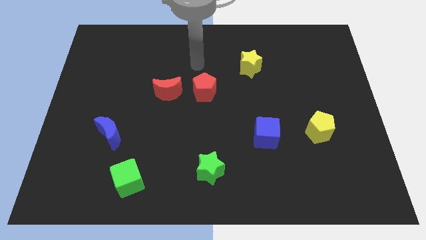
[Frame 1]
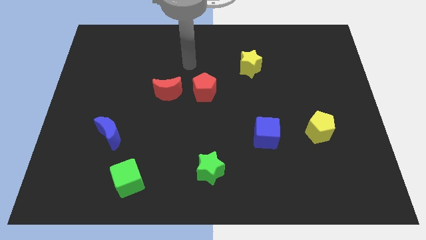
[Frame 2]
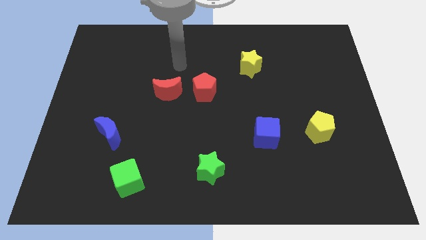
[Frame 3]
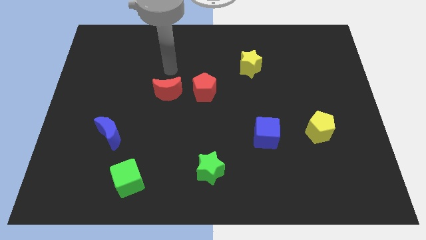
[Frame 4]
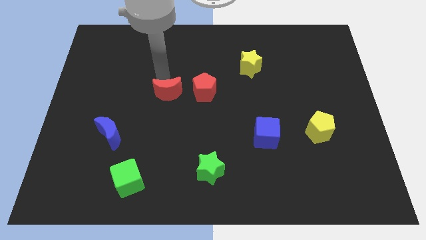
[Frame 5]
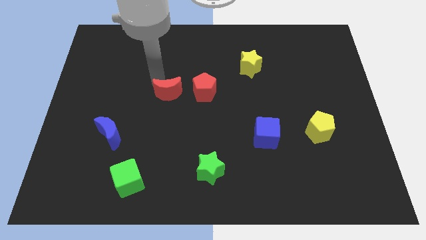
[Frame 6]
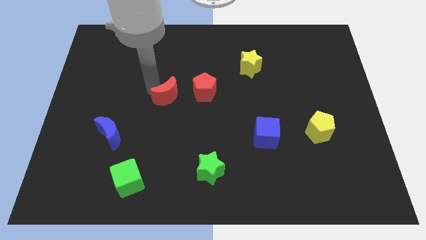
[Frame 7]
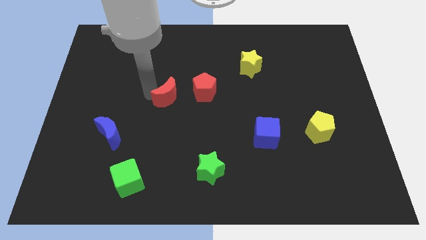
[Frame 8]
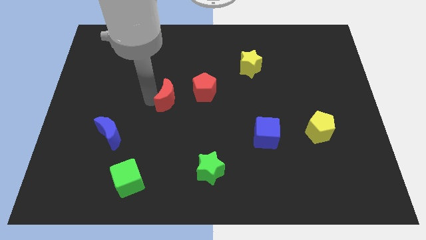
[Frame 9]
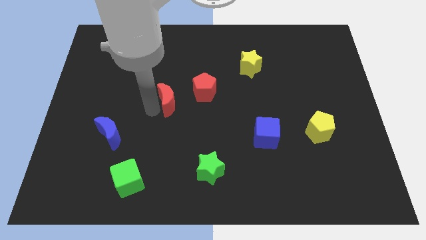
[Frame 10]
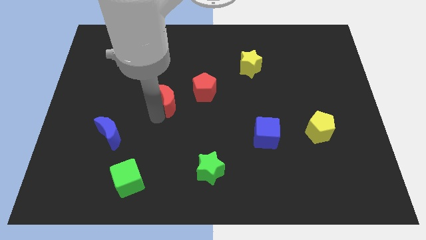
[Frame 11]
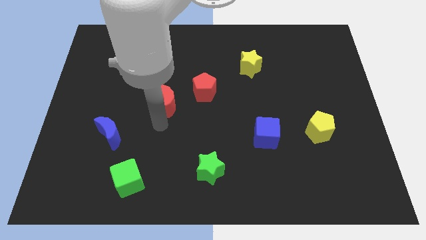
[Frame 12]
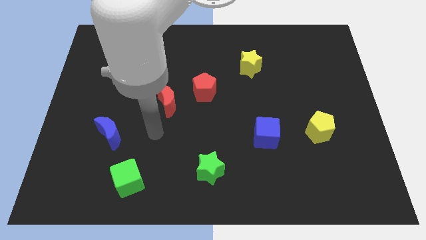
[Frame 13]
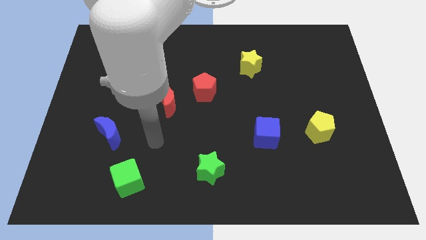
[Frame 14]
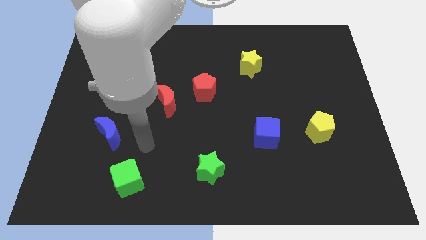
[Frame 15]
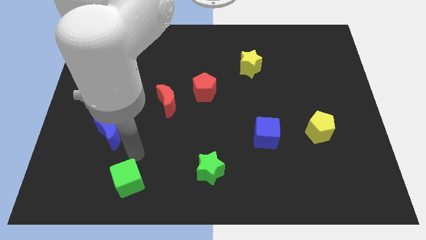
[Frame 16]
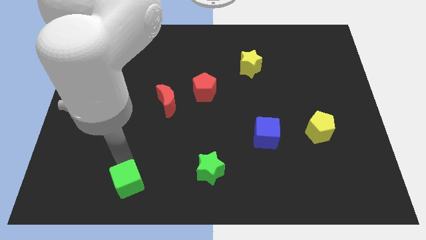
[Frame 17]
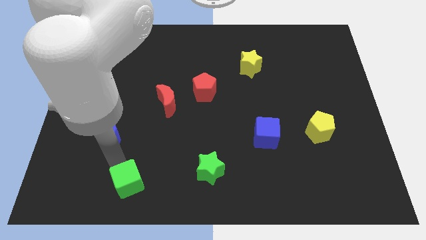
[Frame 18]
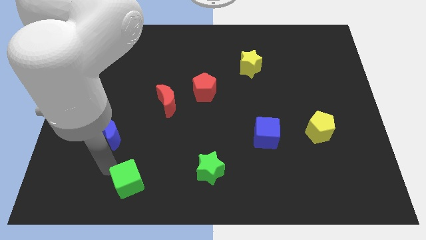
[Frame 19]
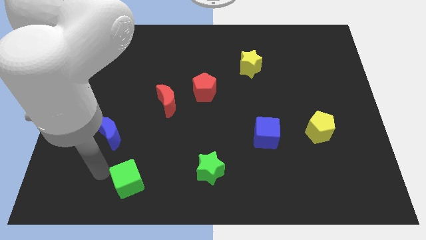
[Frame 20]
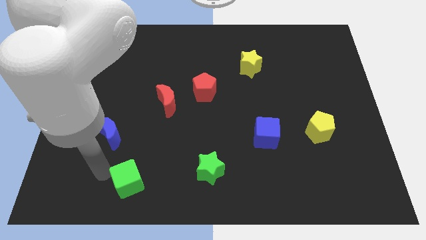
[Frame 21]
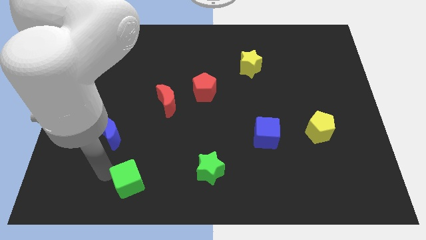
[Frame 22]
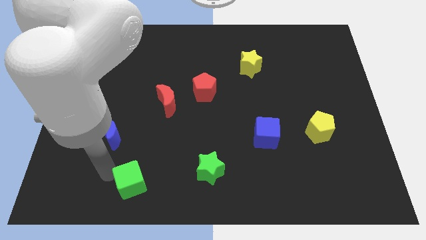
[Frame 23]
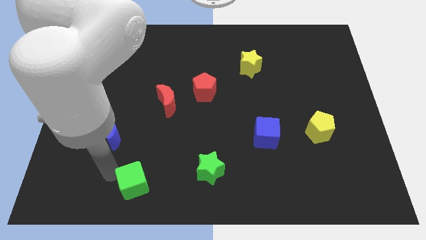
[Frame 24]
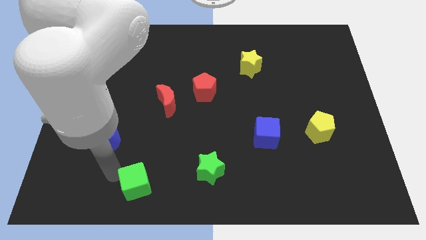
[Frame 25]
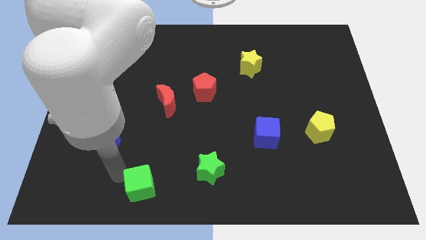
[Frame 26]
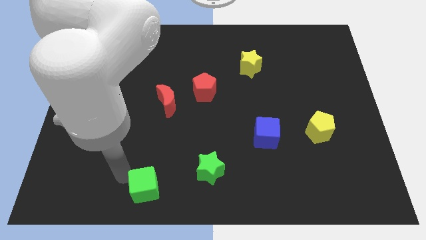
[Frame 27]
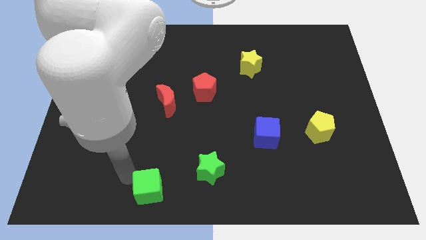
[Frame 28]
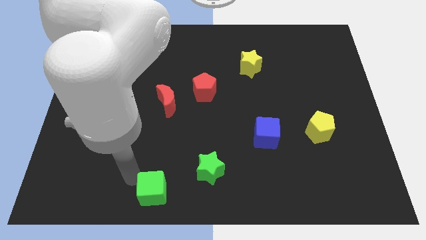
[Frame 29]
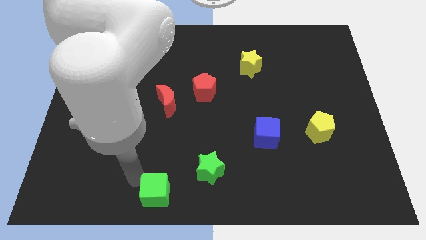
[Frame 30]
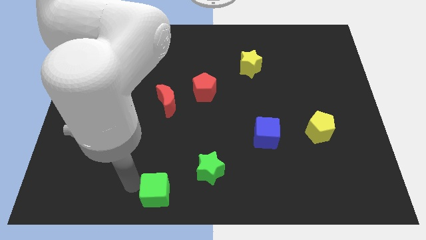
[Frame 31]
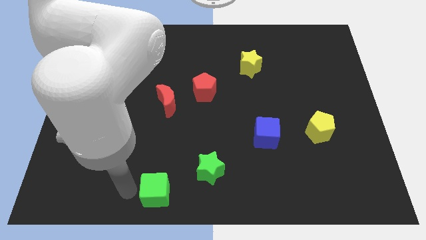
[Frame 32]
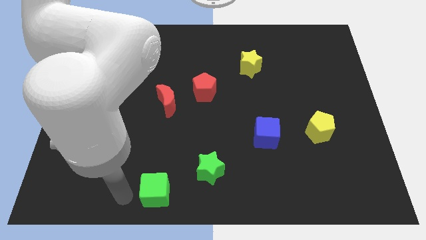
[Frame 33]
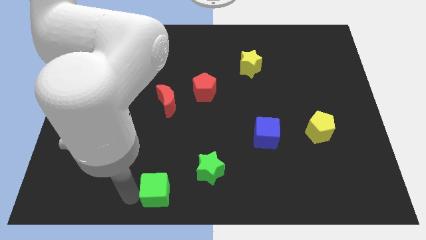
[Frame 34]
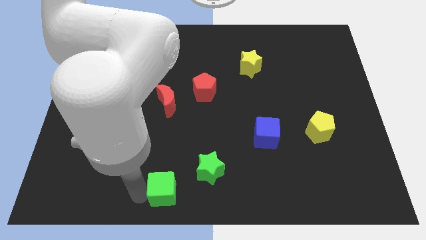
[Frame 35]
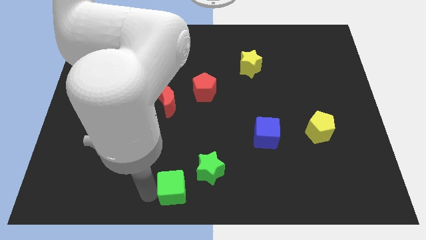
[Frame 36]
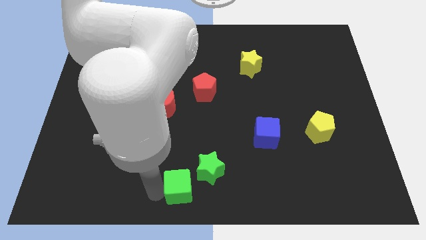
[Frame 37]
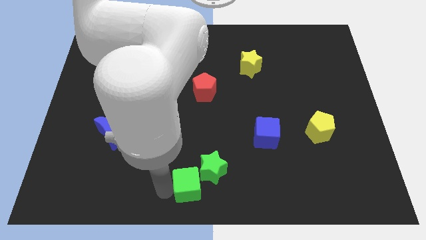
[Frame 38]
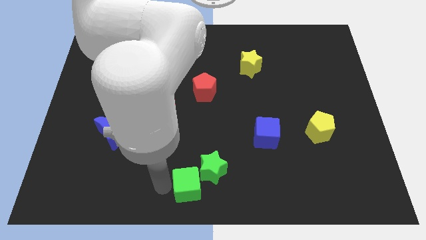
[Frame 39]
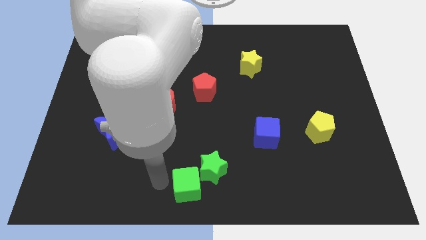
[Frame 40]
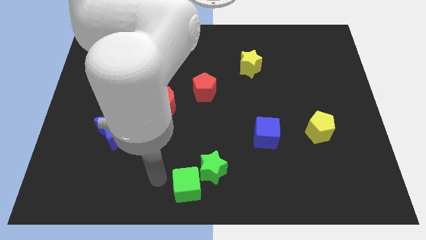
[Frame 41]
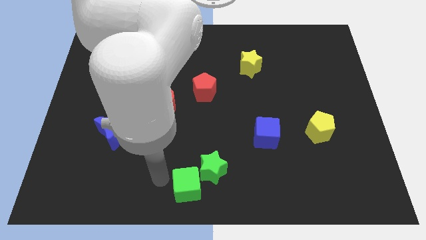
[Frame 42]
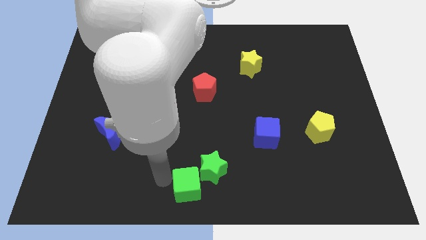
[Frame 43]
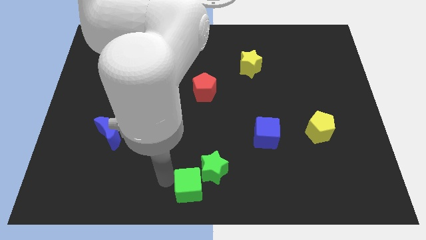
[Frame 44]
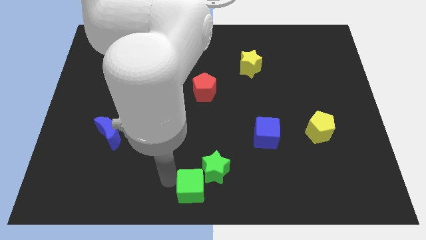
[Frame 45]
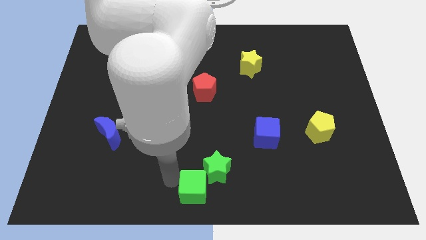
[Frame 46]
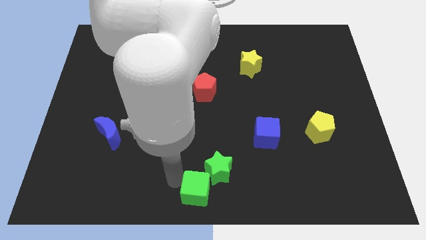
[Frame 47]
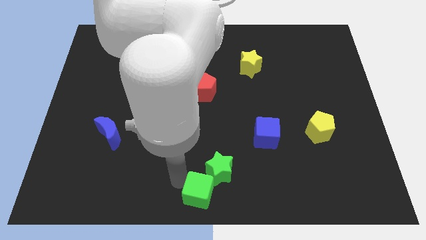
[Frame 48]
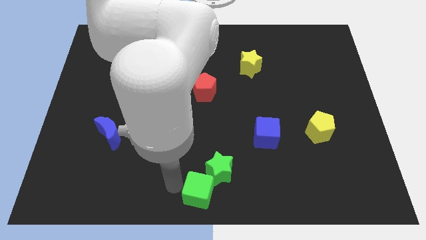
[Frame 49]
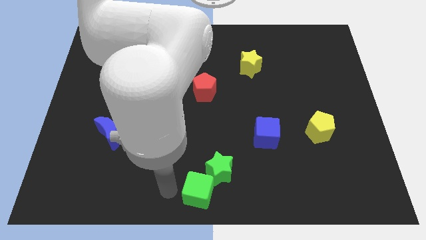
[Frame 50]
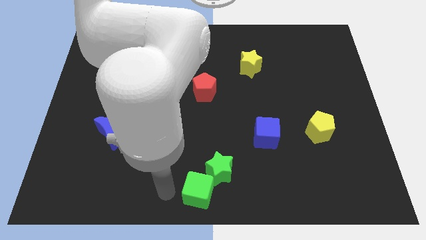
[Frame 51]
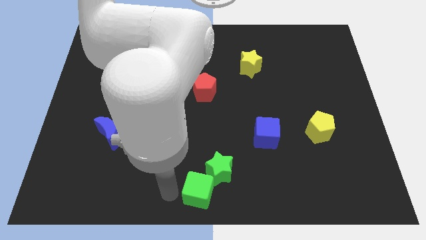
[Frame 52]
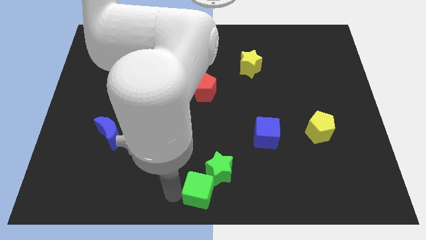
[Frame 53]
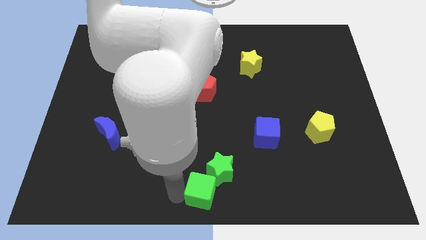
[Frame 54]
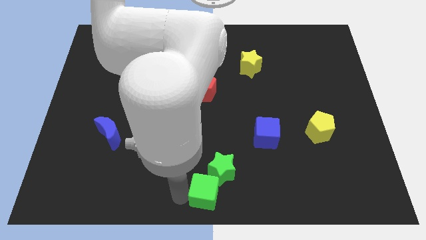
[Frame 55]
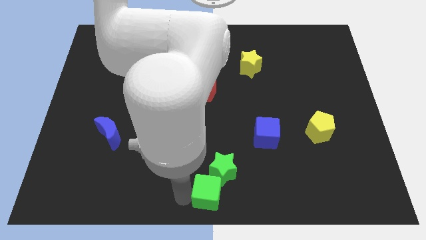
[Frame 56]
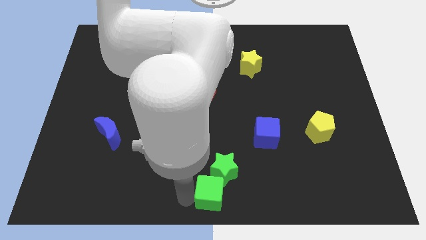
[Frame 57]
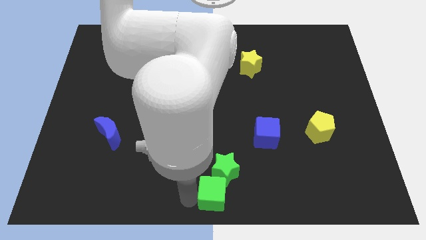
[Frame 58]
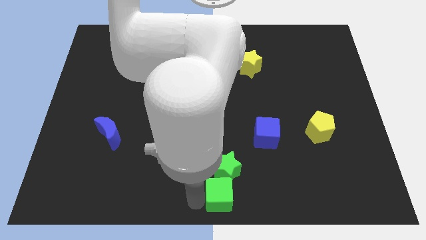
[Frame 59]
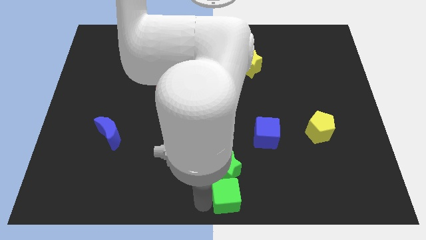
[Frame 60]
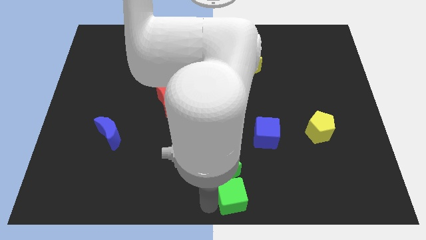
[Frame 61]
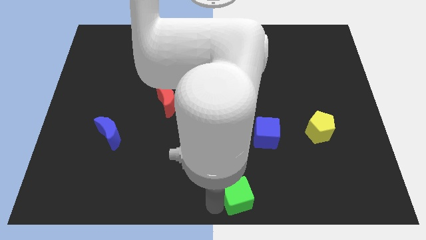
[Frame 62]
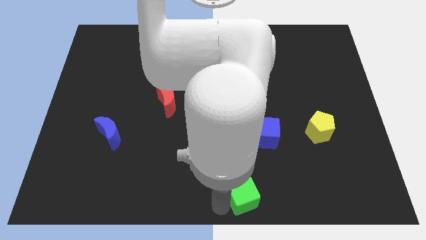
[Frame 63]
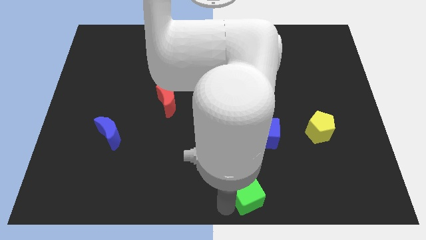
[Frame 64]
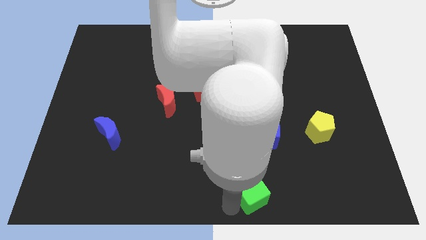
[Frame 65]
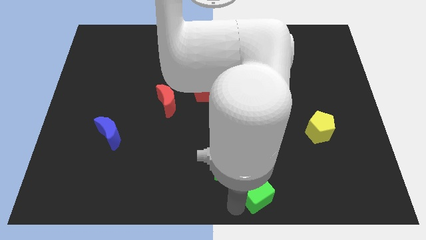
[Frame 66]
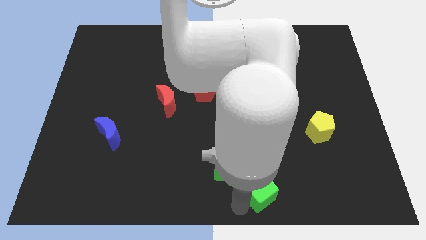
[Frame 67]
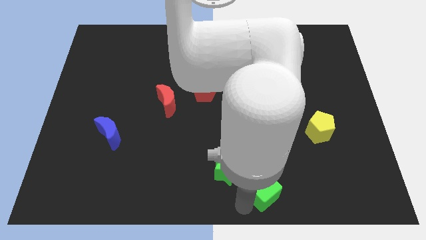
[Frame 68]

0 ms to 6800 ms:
slide the green cube right of the green star
